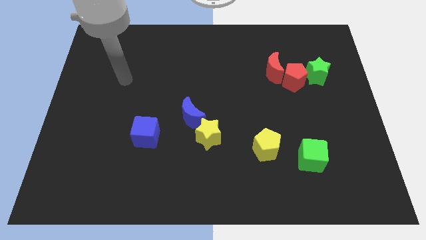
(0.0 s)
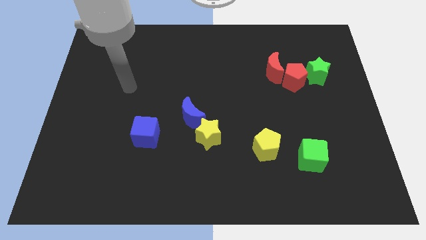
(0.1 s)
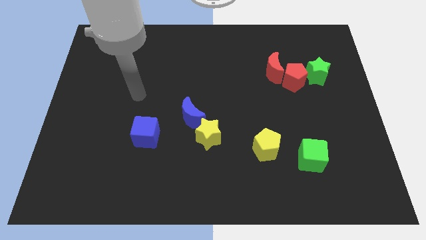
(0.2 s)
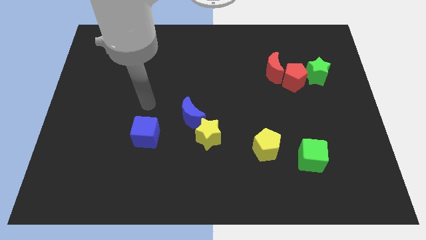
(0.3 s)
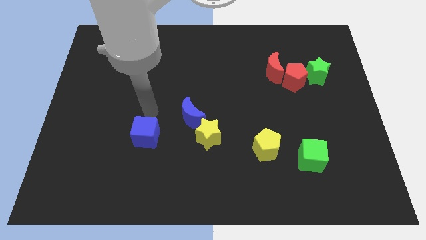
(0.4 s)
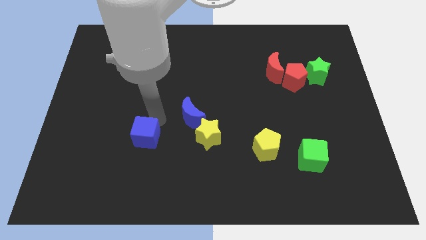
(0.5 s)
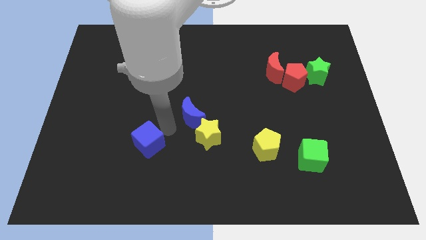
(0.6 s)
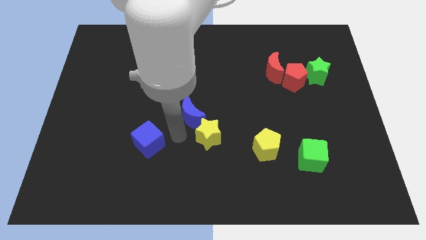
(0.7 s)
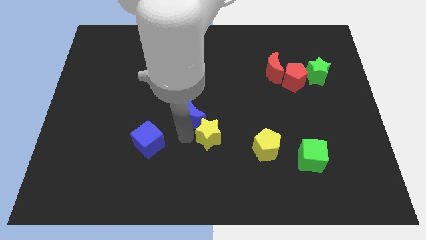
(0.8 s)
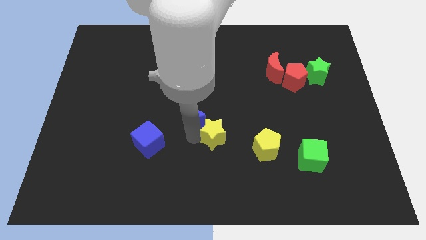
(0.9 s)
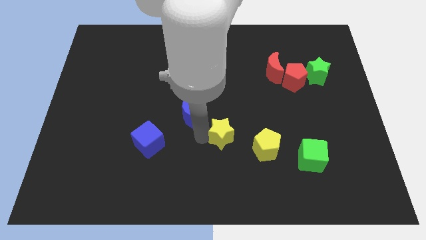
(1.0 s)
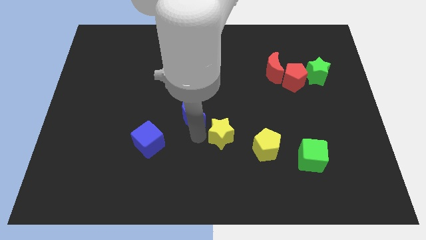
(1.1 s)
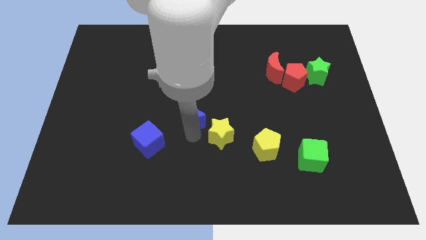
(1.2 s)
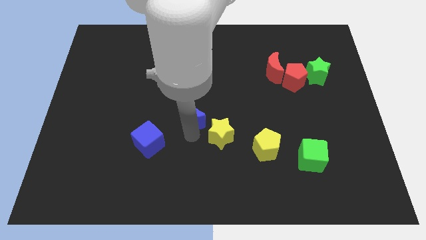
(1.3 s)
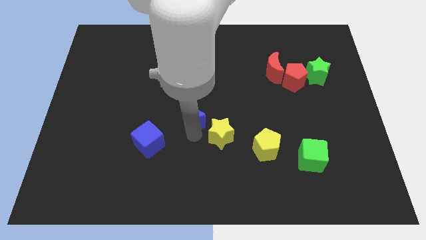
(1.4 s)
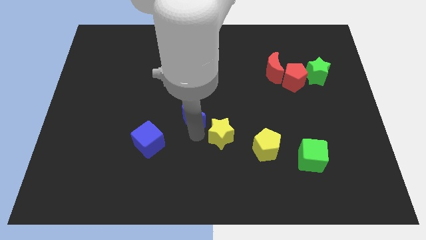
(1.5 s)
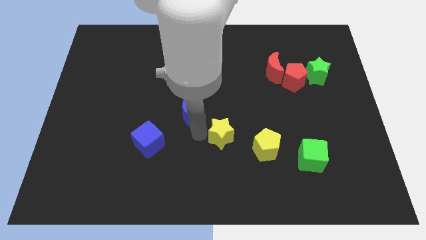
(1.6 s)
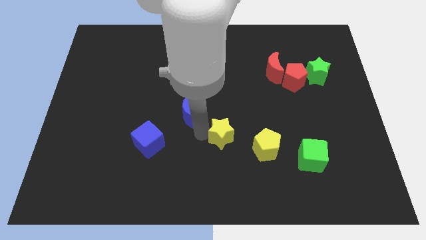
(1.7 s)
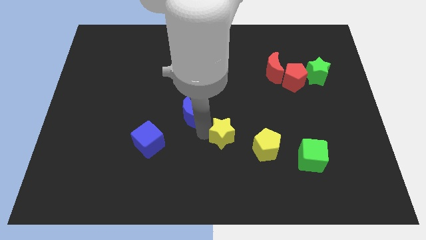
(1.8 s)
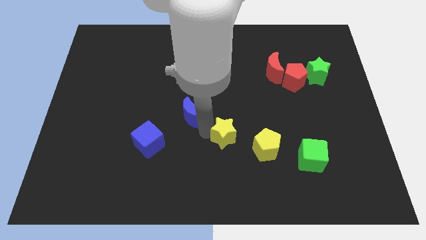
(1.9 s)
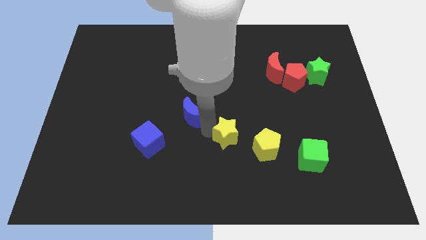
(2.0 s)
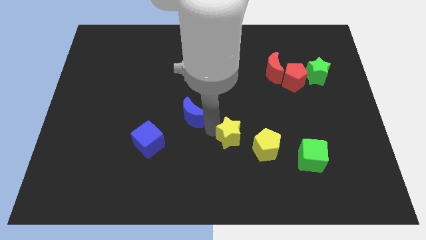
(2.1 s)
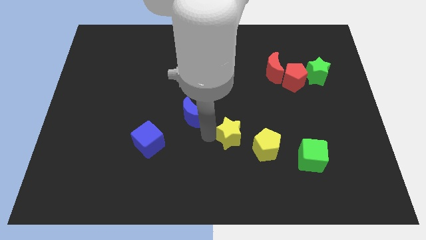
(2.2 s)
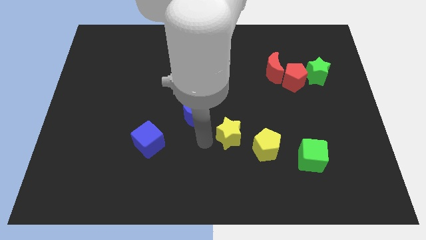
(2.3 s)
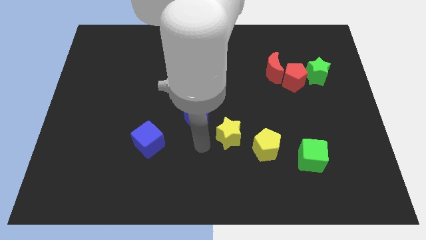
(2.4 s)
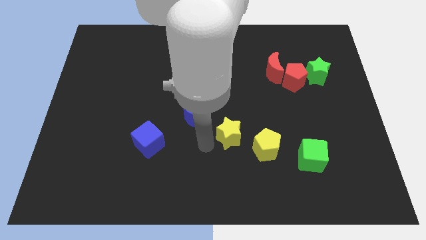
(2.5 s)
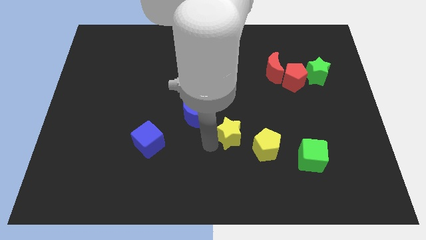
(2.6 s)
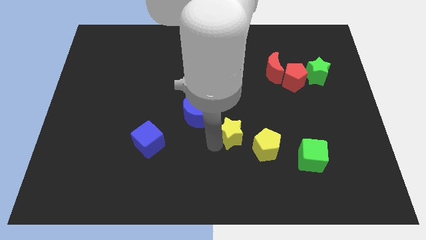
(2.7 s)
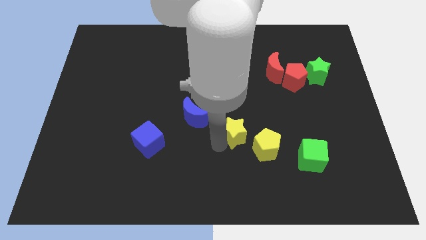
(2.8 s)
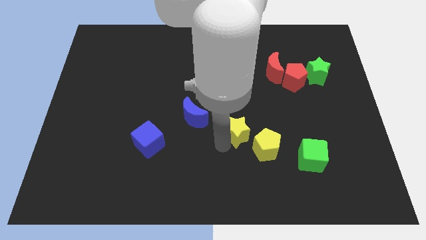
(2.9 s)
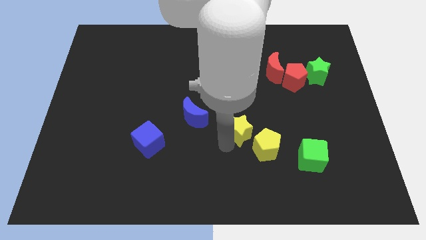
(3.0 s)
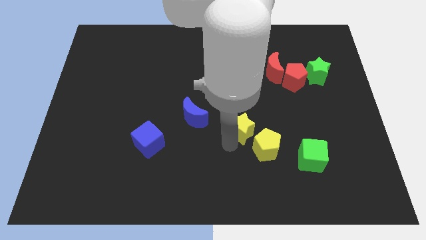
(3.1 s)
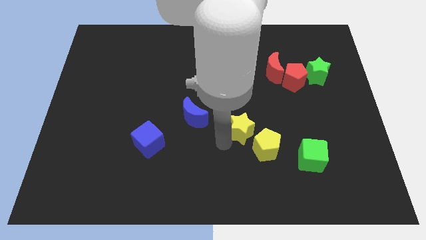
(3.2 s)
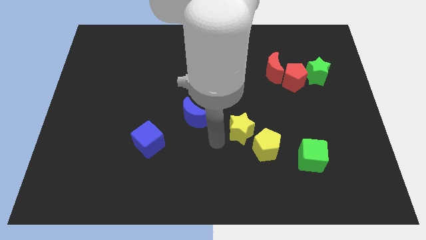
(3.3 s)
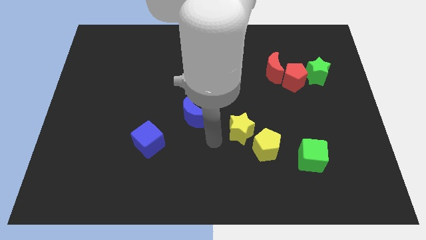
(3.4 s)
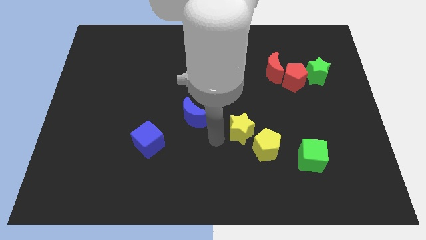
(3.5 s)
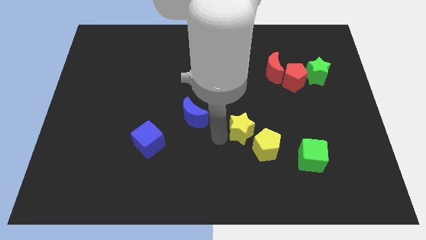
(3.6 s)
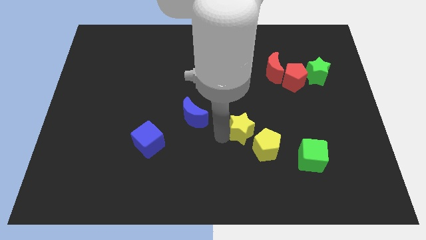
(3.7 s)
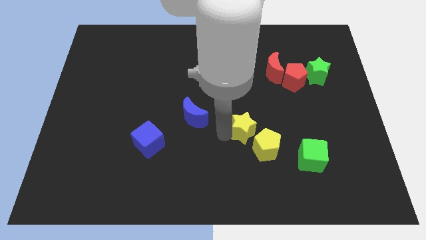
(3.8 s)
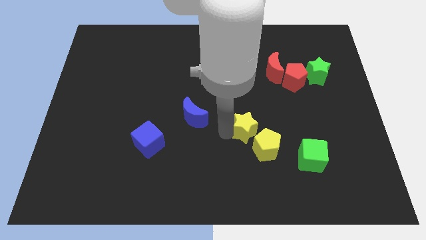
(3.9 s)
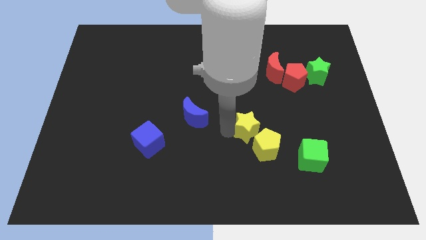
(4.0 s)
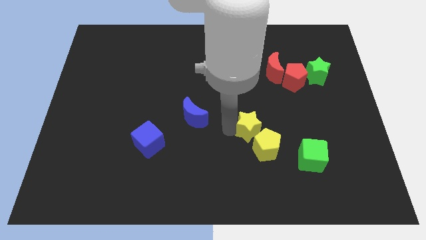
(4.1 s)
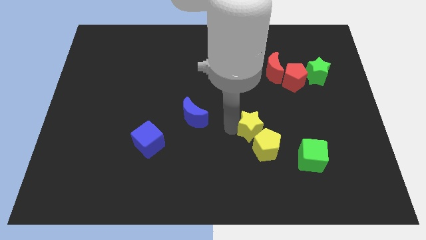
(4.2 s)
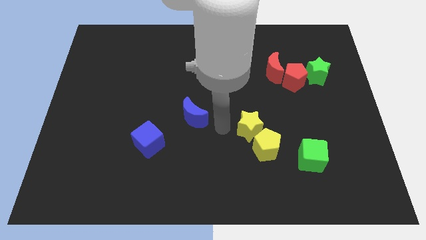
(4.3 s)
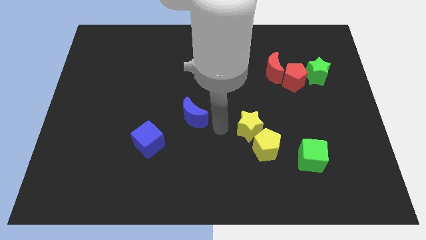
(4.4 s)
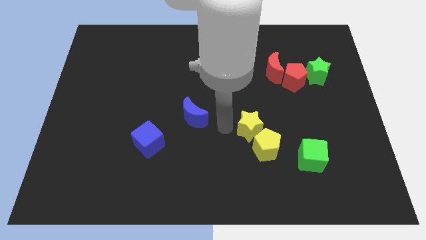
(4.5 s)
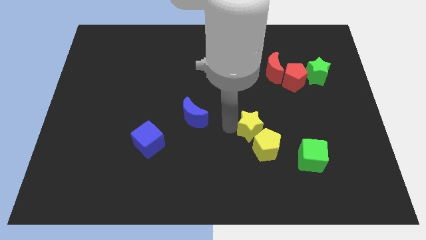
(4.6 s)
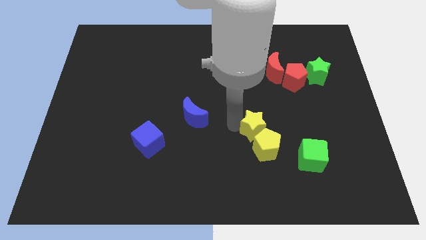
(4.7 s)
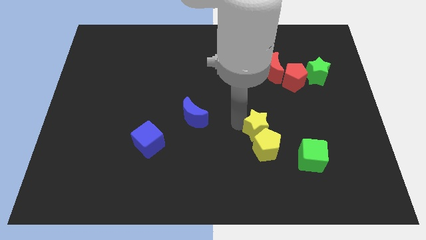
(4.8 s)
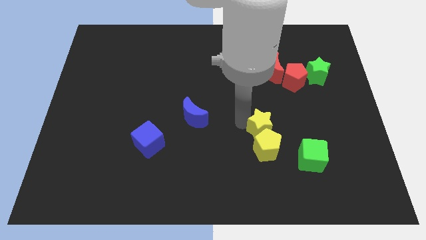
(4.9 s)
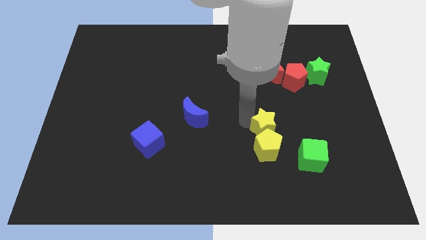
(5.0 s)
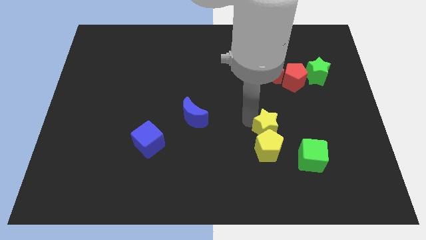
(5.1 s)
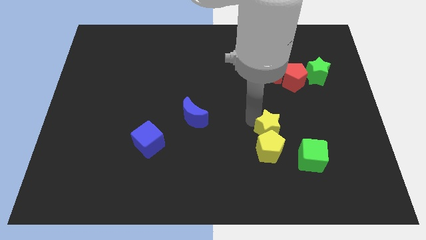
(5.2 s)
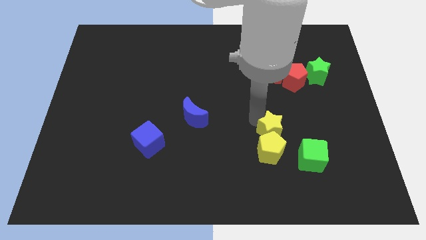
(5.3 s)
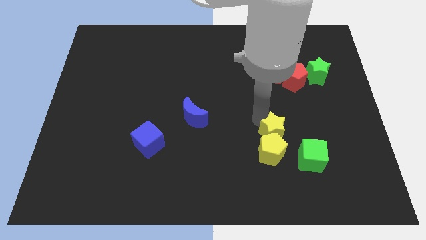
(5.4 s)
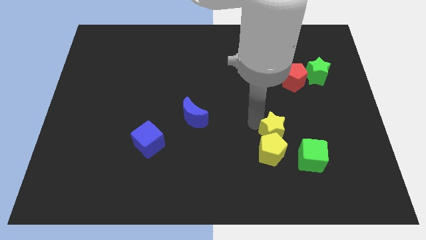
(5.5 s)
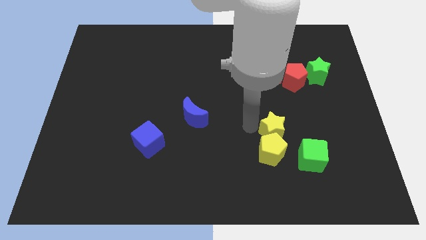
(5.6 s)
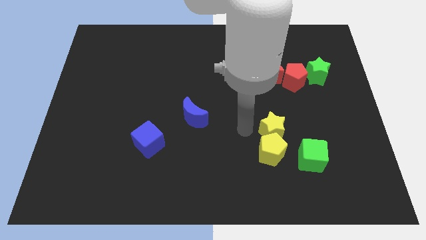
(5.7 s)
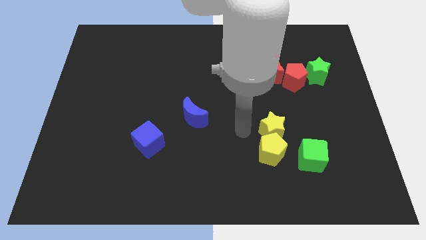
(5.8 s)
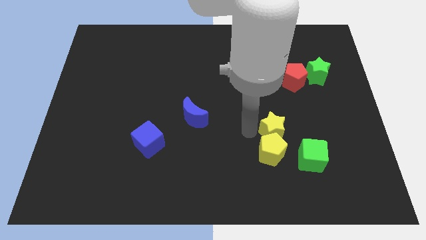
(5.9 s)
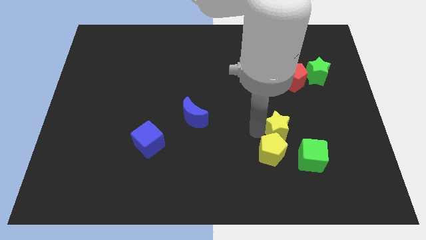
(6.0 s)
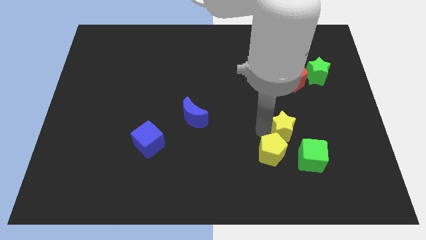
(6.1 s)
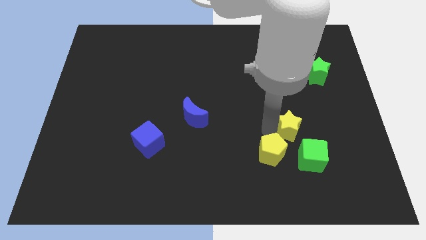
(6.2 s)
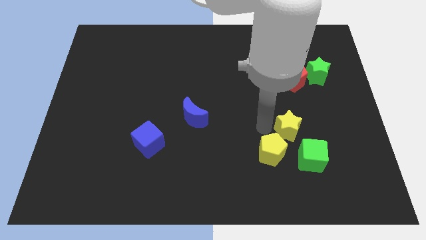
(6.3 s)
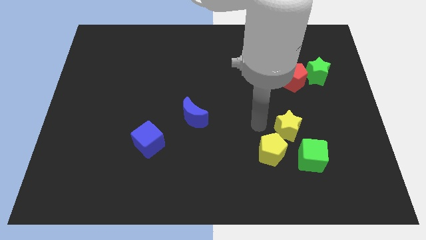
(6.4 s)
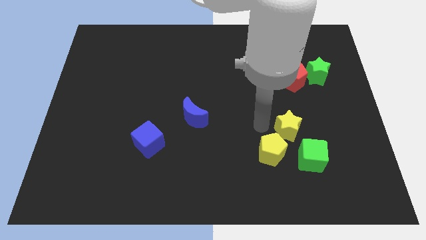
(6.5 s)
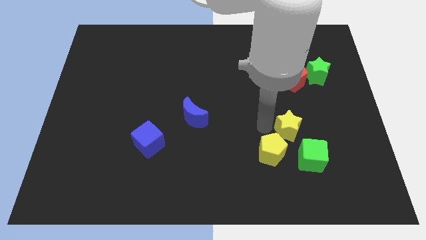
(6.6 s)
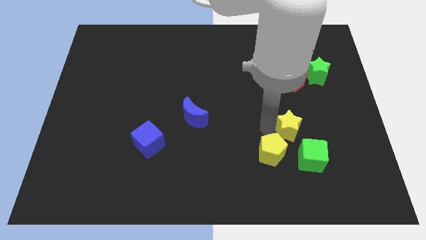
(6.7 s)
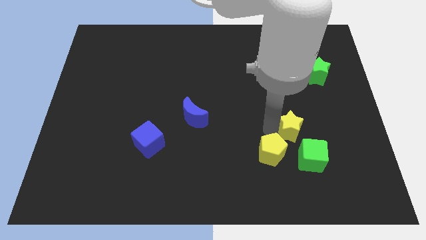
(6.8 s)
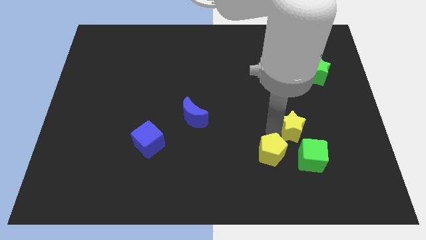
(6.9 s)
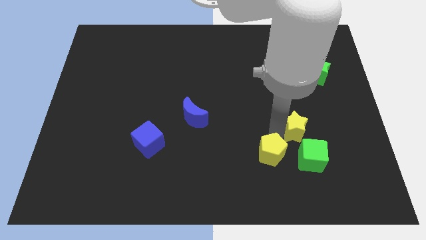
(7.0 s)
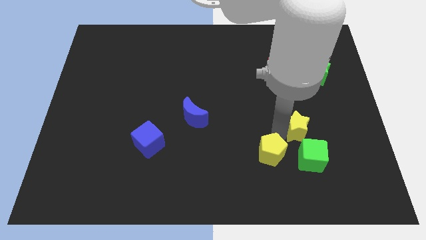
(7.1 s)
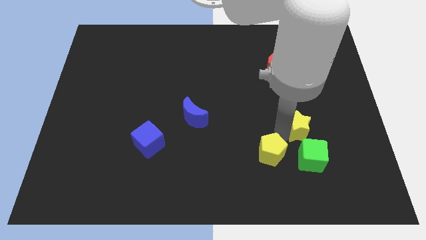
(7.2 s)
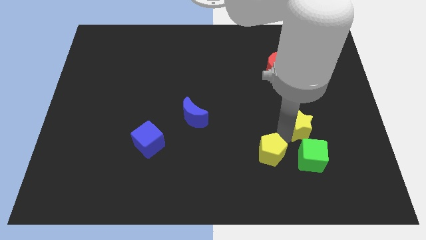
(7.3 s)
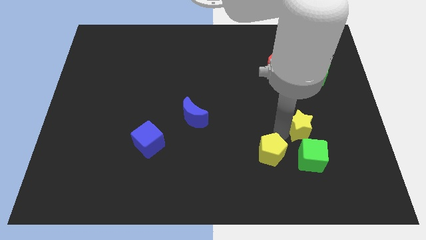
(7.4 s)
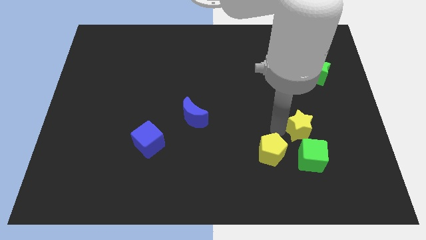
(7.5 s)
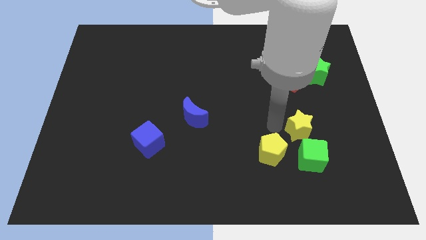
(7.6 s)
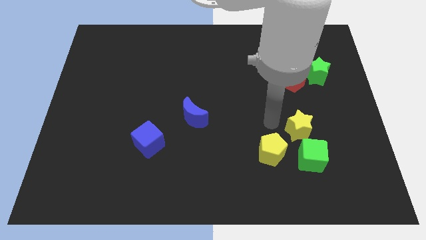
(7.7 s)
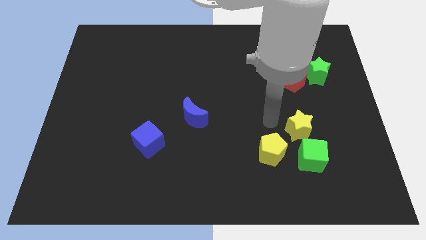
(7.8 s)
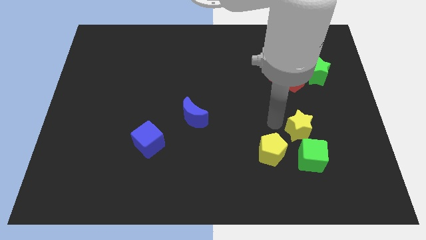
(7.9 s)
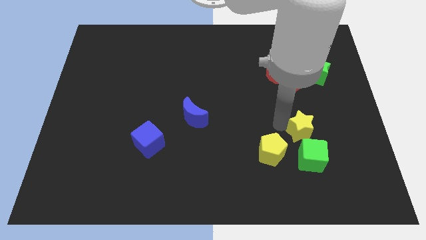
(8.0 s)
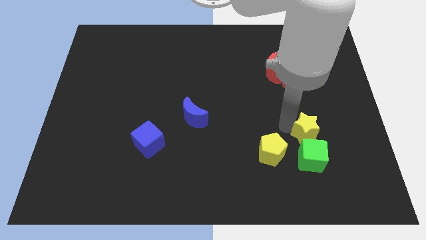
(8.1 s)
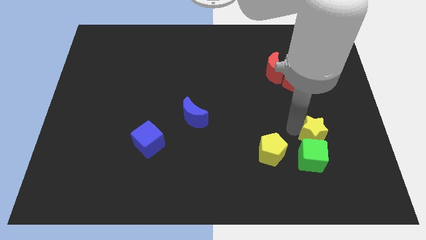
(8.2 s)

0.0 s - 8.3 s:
slide the yellow star to the top right of the green cube
